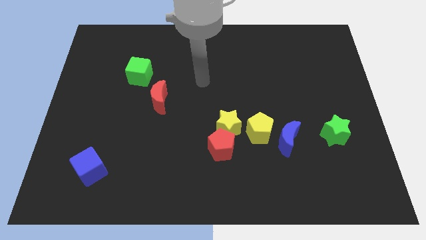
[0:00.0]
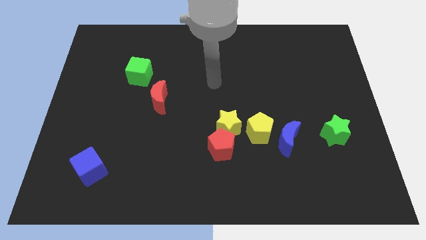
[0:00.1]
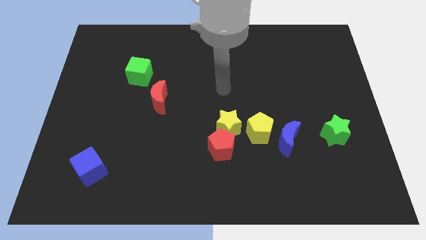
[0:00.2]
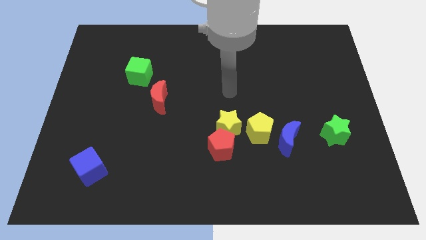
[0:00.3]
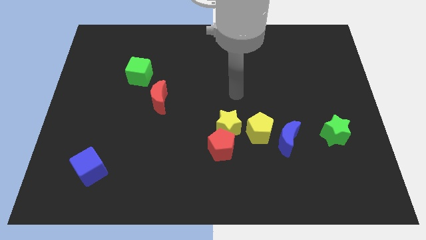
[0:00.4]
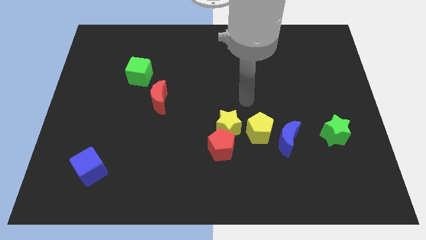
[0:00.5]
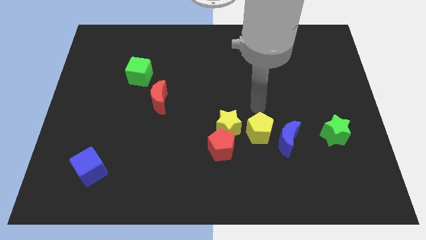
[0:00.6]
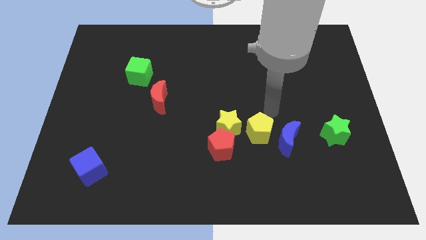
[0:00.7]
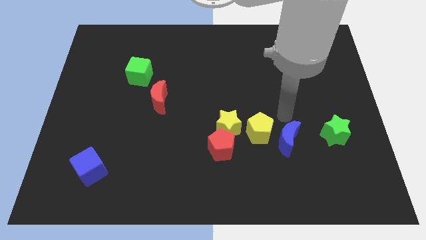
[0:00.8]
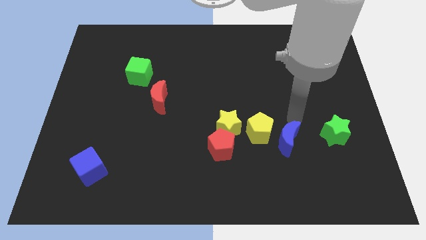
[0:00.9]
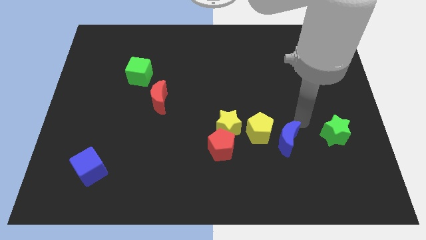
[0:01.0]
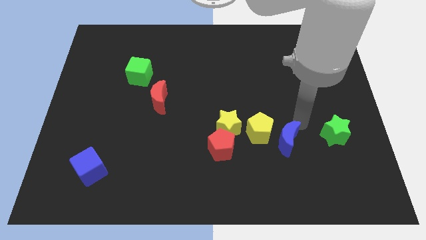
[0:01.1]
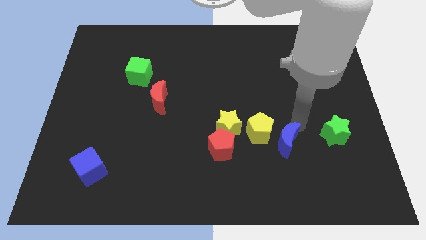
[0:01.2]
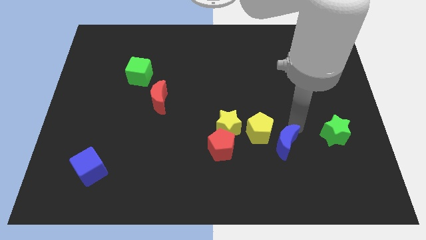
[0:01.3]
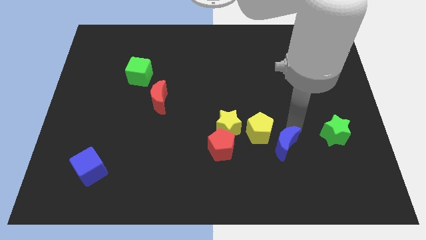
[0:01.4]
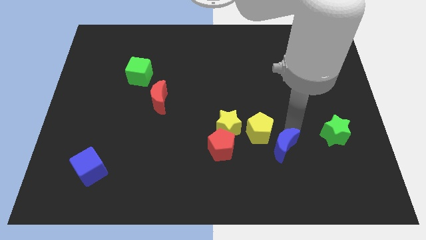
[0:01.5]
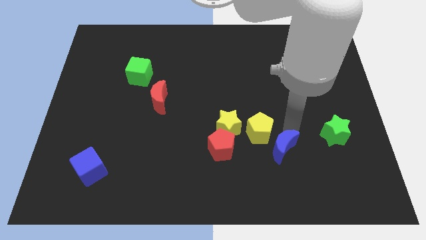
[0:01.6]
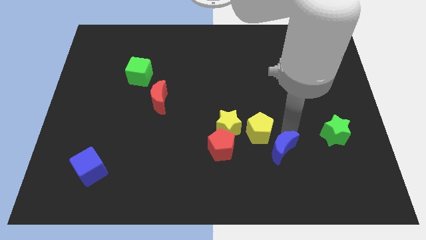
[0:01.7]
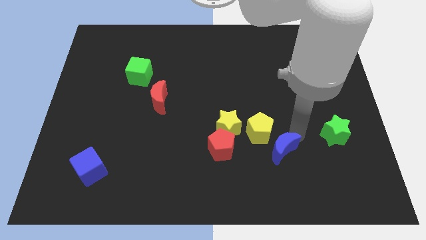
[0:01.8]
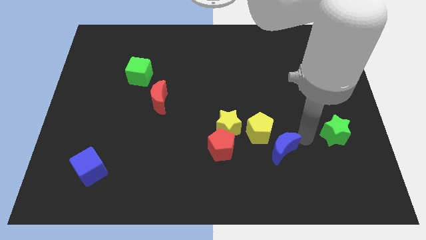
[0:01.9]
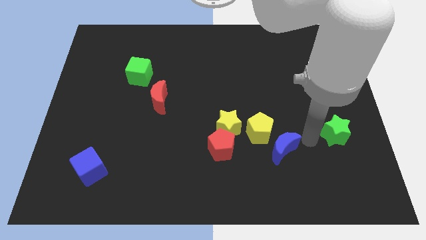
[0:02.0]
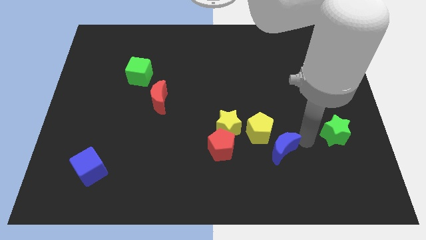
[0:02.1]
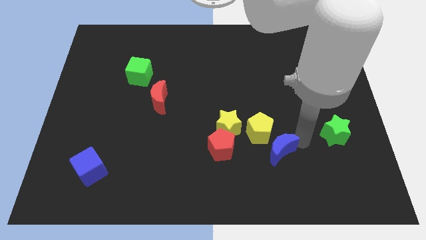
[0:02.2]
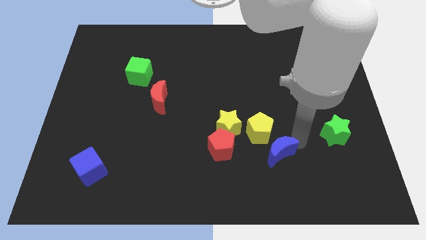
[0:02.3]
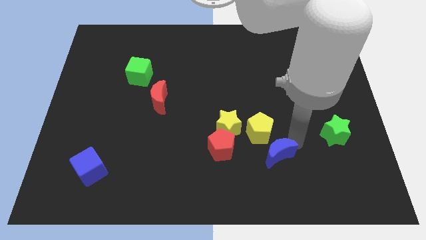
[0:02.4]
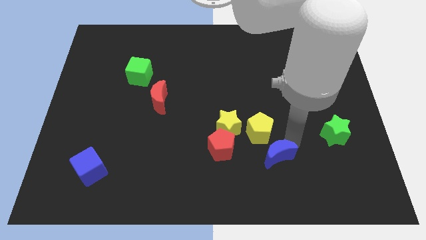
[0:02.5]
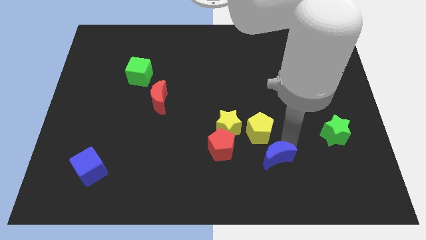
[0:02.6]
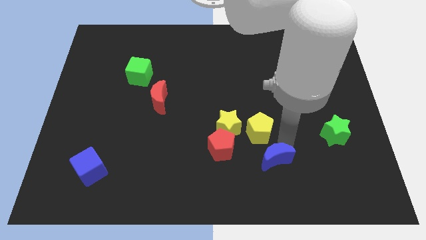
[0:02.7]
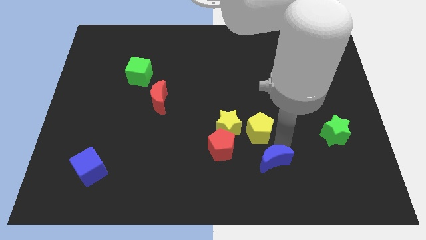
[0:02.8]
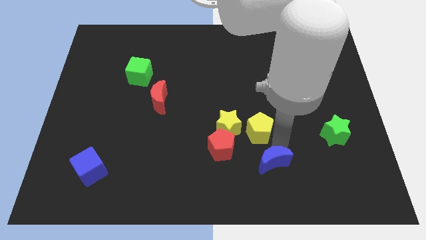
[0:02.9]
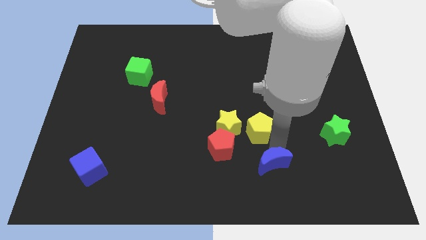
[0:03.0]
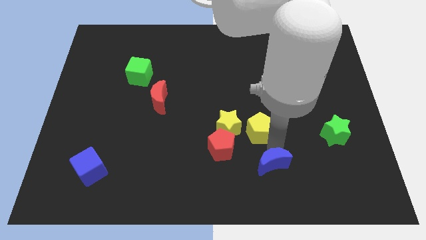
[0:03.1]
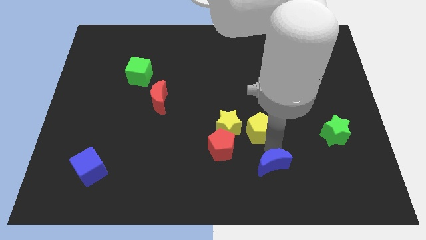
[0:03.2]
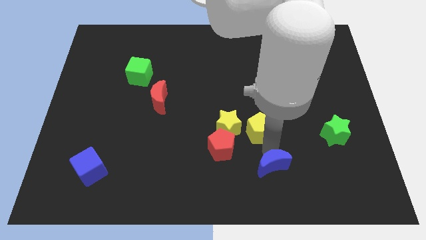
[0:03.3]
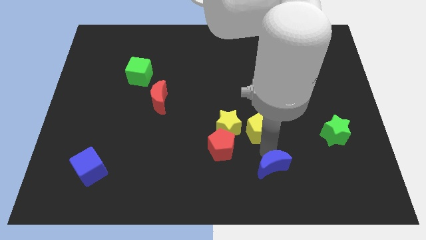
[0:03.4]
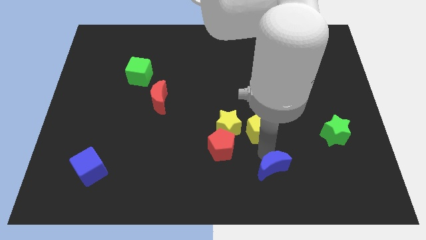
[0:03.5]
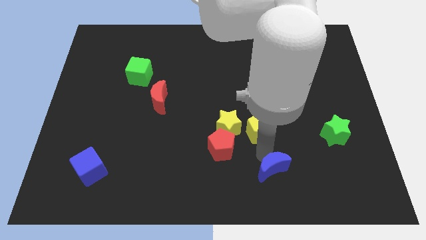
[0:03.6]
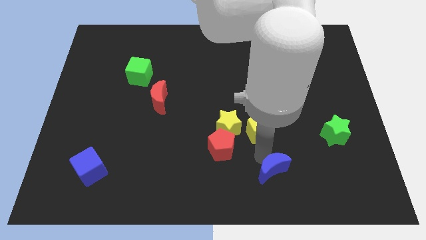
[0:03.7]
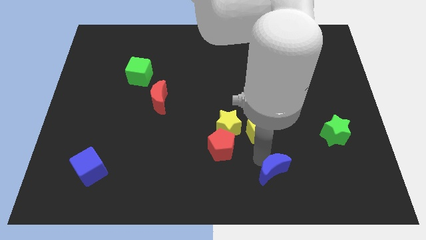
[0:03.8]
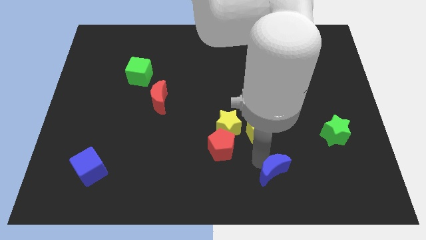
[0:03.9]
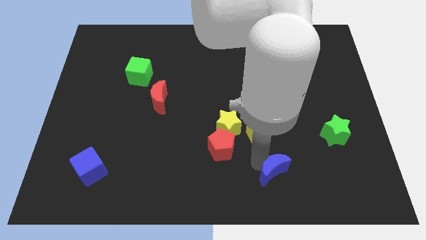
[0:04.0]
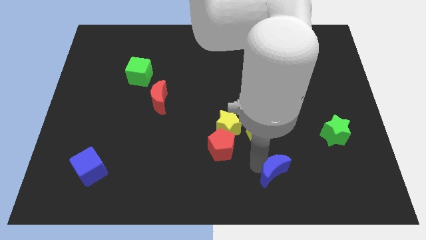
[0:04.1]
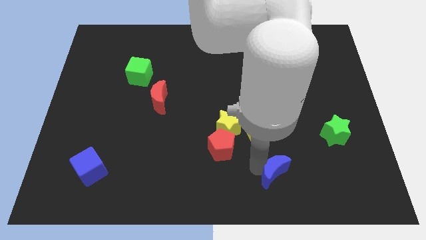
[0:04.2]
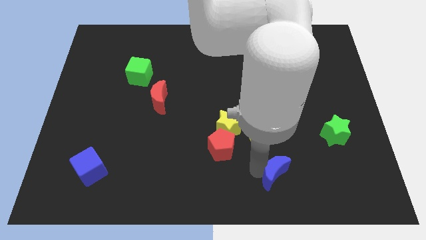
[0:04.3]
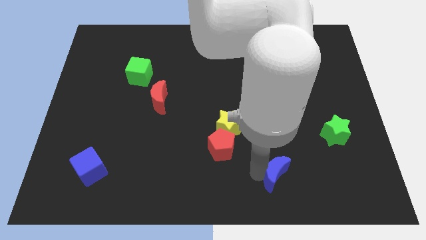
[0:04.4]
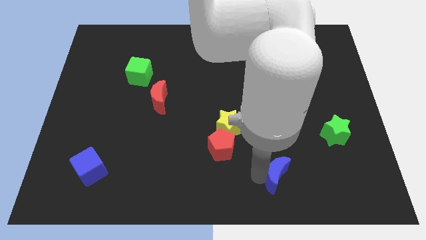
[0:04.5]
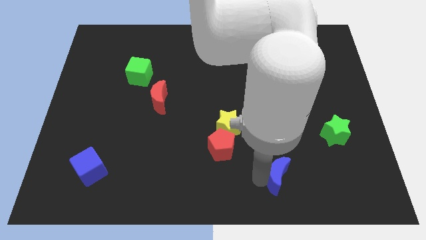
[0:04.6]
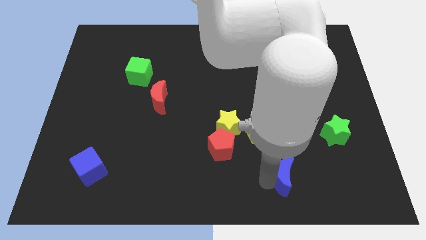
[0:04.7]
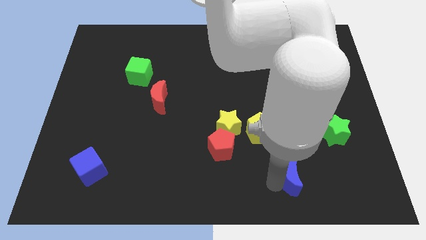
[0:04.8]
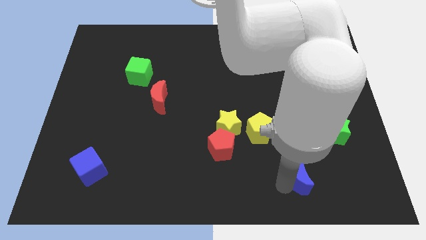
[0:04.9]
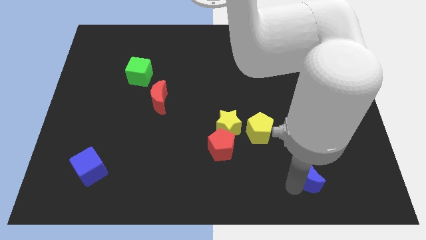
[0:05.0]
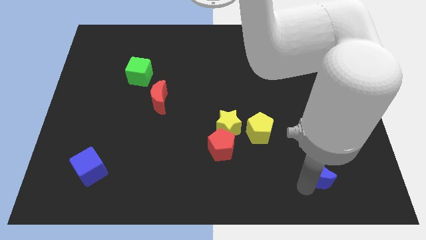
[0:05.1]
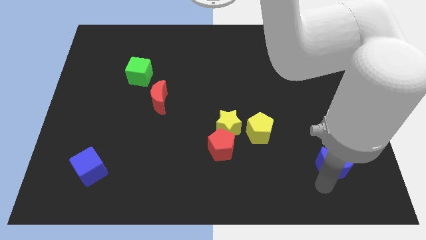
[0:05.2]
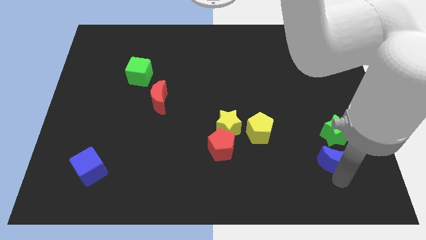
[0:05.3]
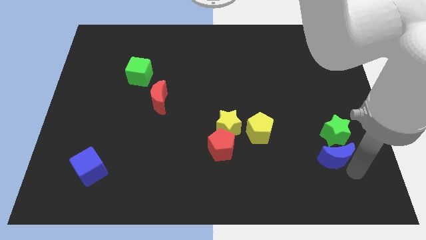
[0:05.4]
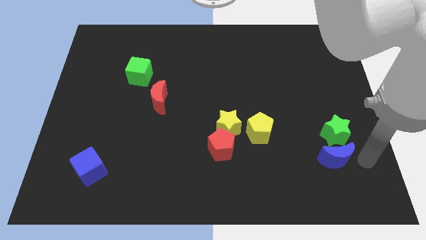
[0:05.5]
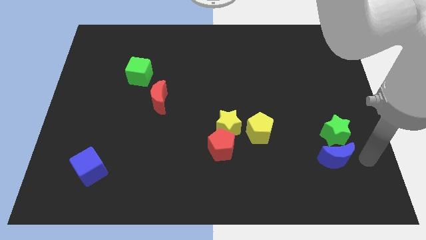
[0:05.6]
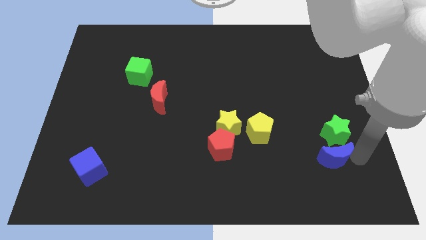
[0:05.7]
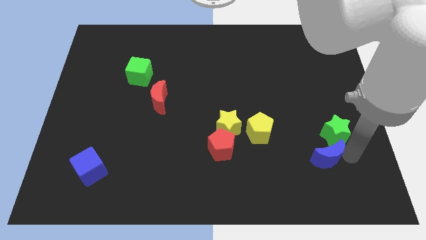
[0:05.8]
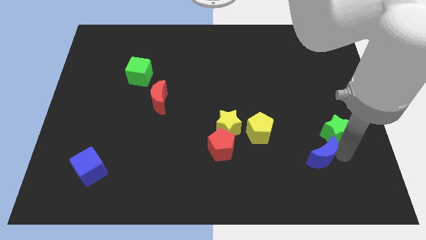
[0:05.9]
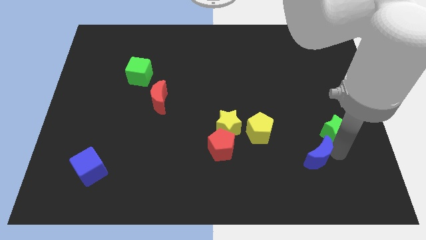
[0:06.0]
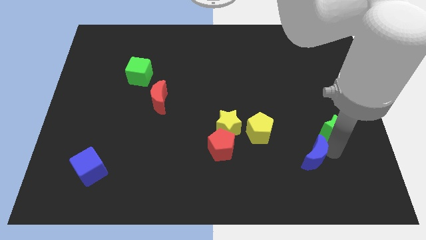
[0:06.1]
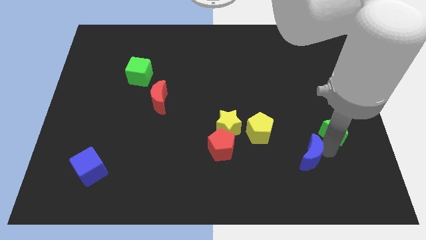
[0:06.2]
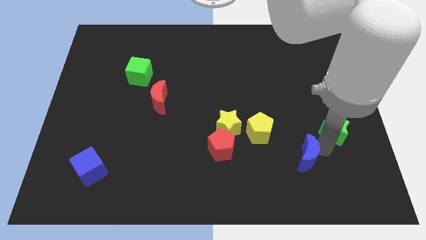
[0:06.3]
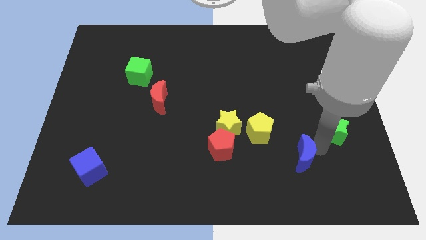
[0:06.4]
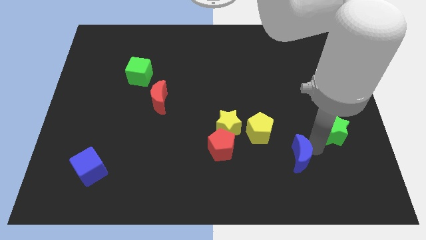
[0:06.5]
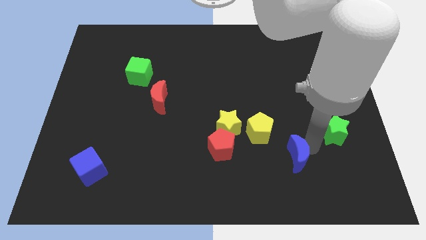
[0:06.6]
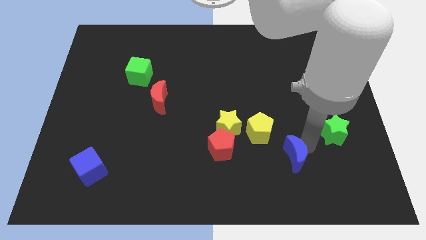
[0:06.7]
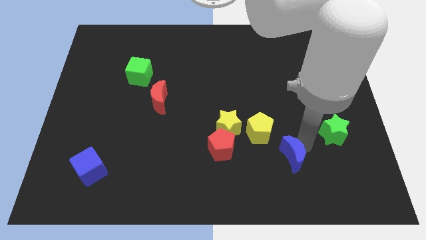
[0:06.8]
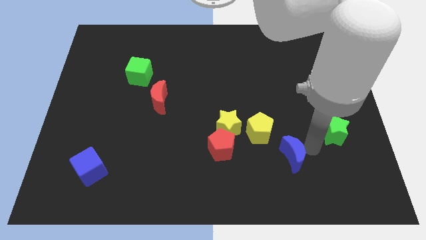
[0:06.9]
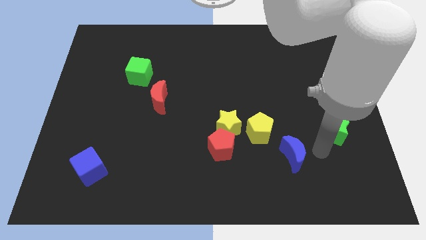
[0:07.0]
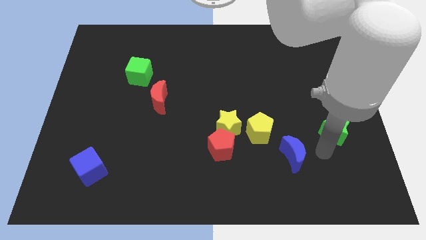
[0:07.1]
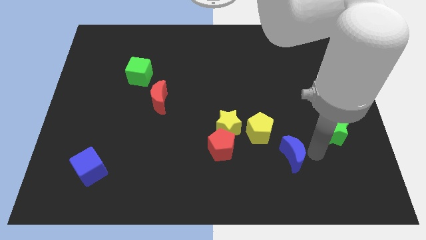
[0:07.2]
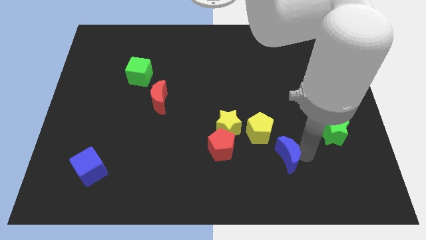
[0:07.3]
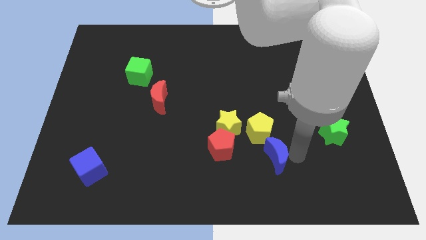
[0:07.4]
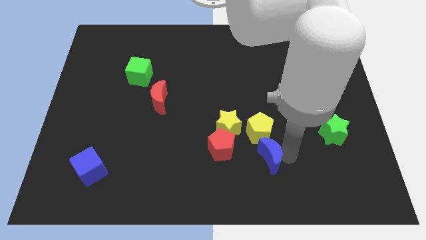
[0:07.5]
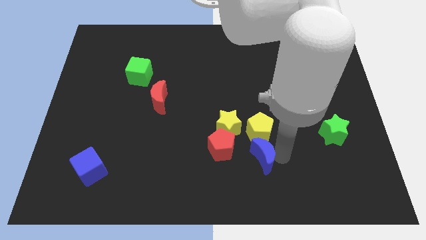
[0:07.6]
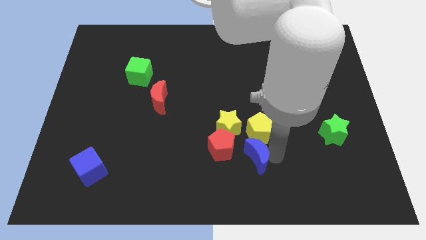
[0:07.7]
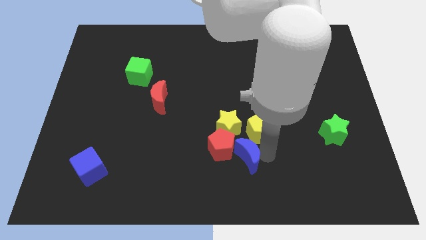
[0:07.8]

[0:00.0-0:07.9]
slide the blue moon a little to the left
